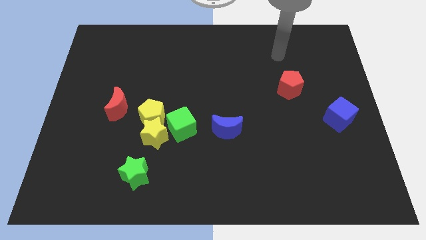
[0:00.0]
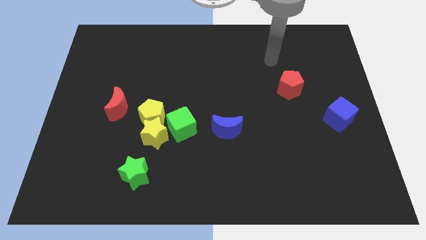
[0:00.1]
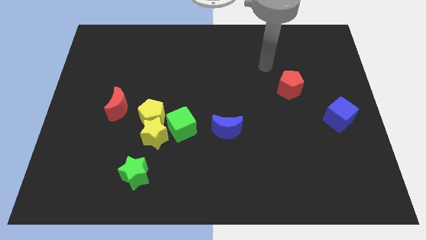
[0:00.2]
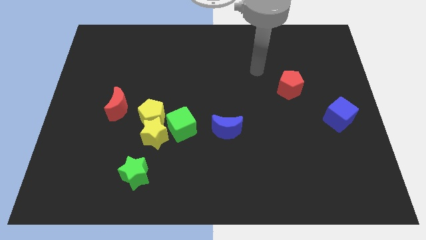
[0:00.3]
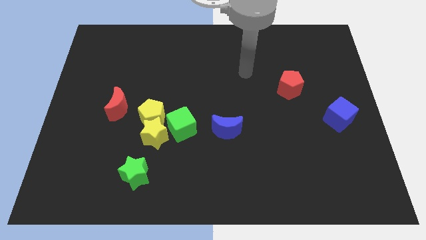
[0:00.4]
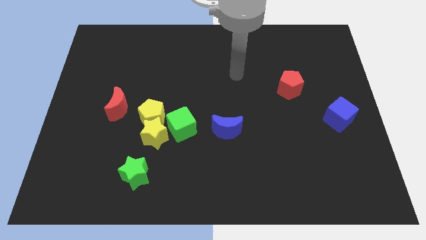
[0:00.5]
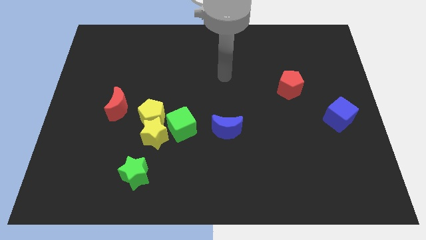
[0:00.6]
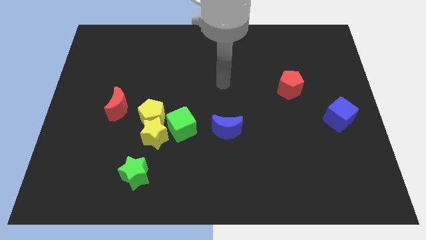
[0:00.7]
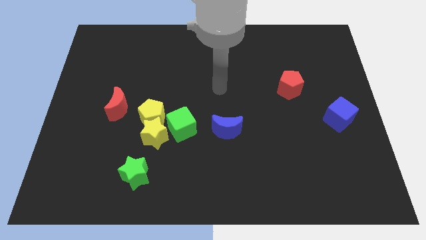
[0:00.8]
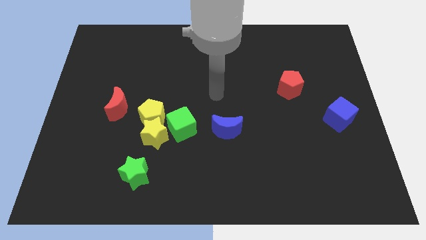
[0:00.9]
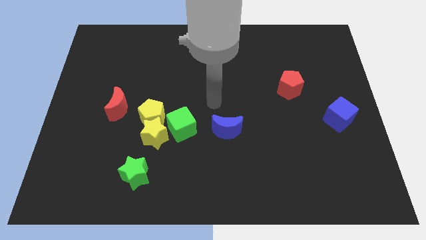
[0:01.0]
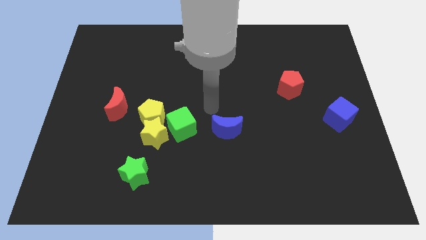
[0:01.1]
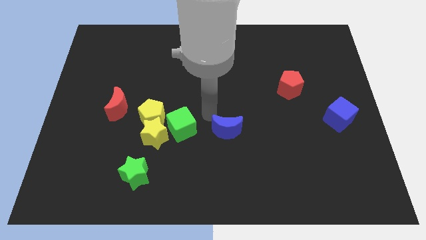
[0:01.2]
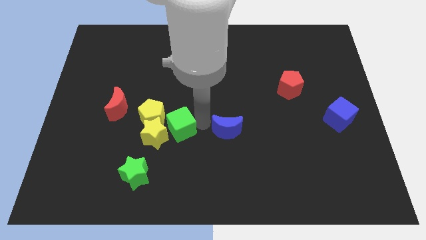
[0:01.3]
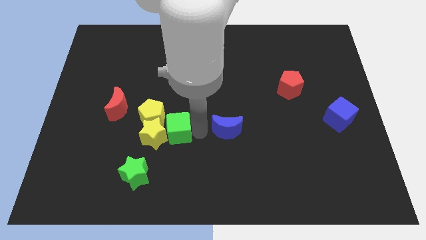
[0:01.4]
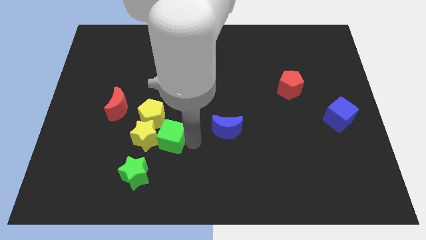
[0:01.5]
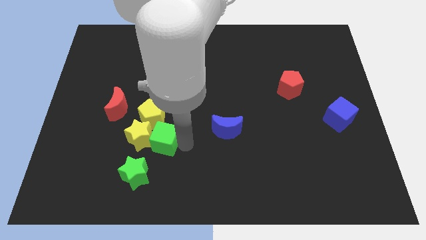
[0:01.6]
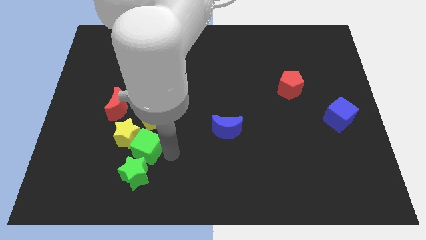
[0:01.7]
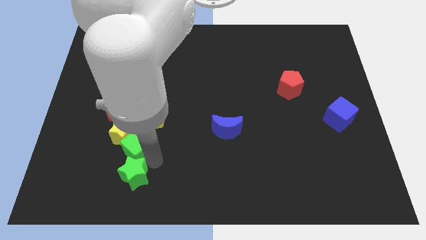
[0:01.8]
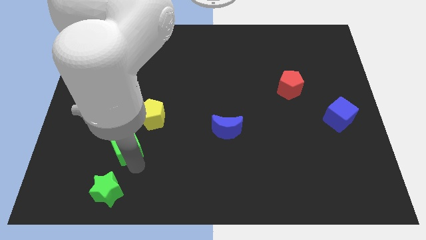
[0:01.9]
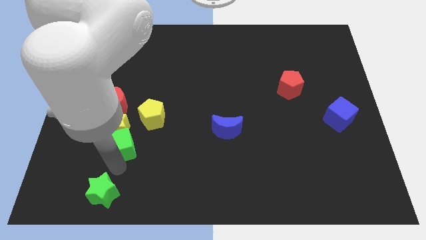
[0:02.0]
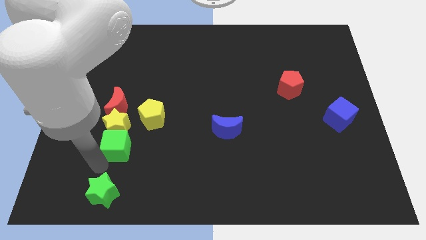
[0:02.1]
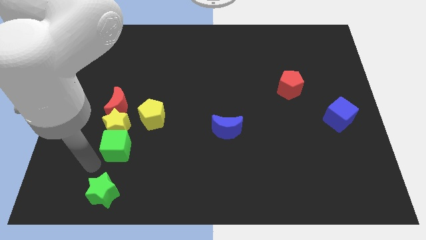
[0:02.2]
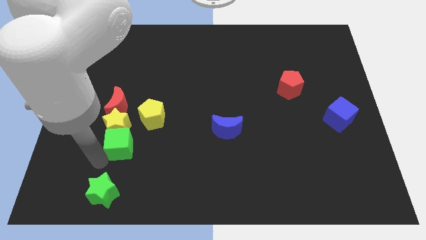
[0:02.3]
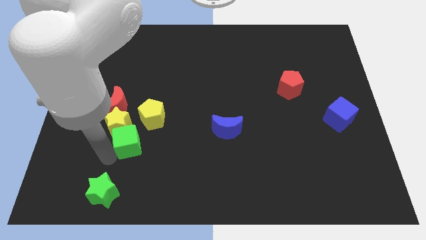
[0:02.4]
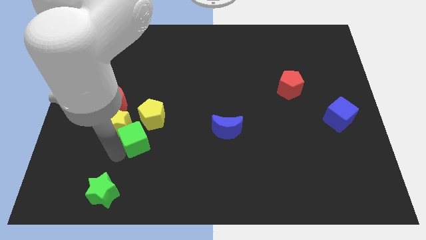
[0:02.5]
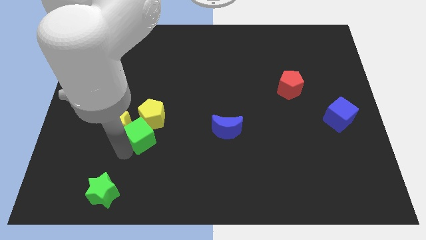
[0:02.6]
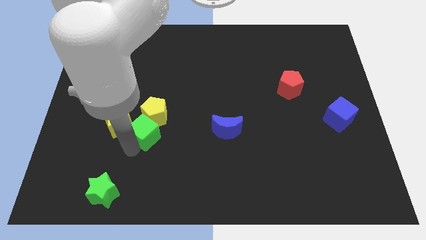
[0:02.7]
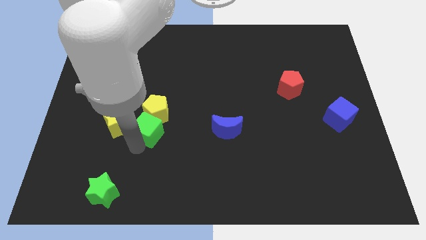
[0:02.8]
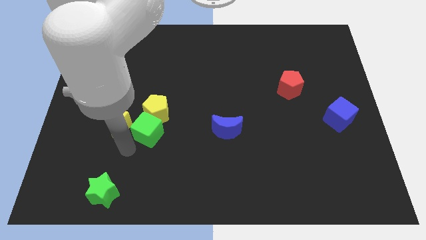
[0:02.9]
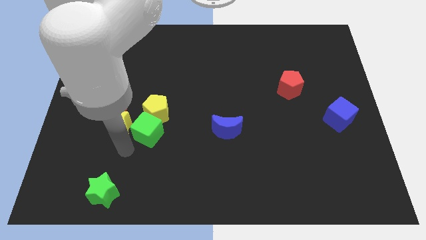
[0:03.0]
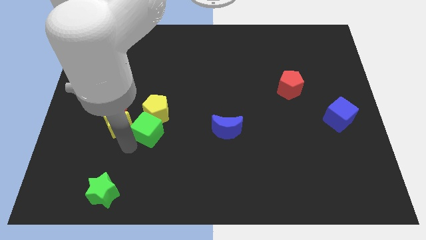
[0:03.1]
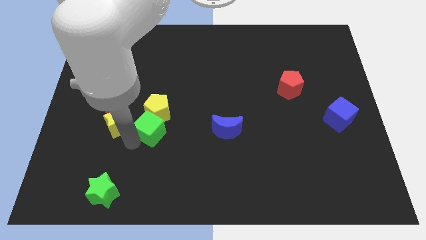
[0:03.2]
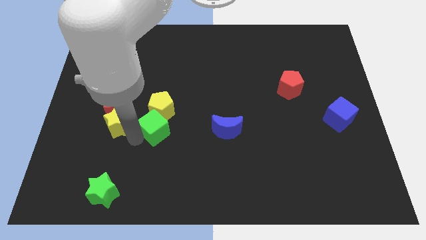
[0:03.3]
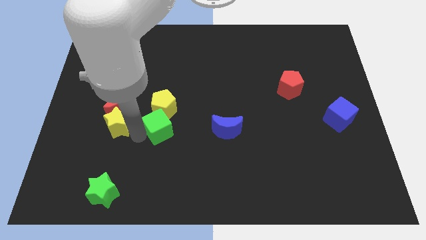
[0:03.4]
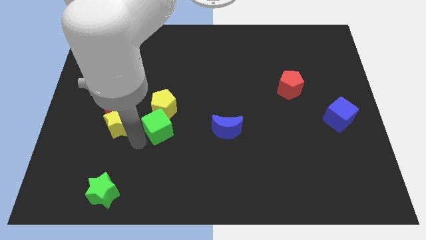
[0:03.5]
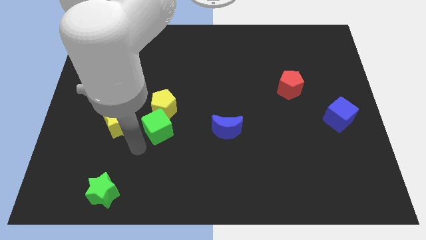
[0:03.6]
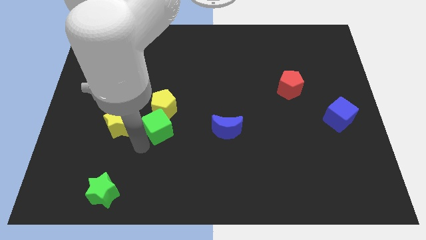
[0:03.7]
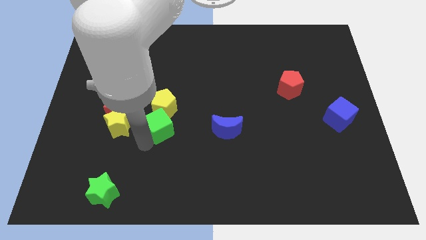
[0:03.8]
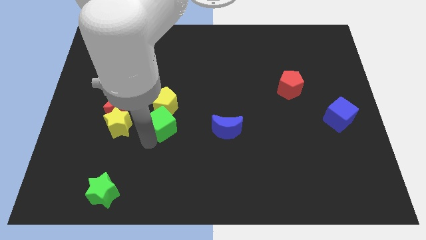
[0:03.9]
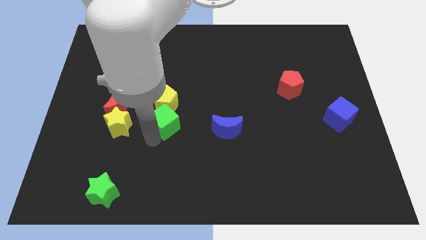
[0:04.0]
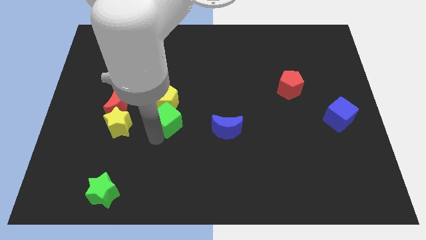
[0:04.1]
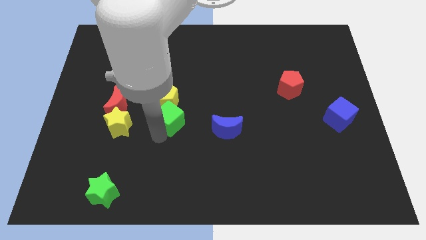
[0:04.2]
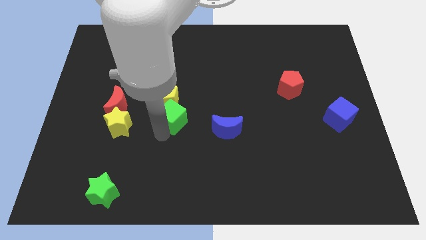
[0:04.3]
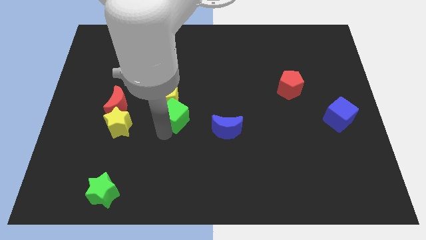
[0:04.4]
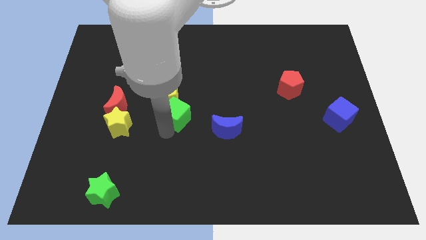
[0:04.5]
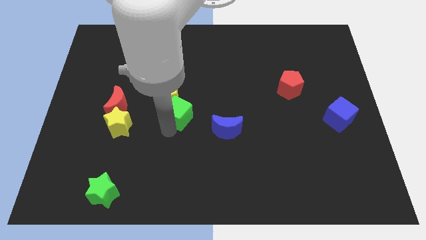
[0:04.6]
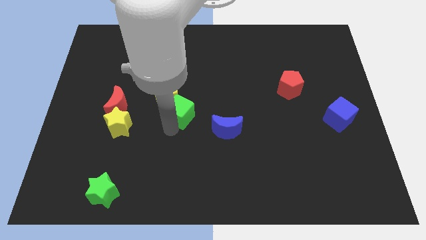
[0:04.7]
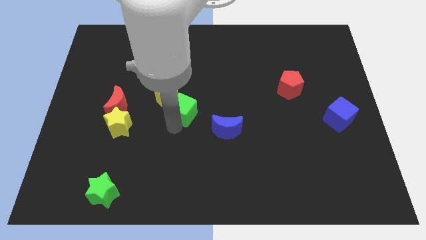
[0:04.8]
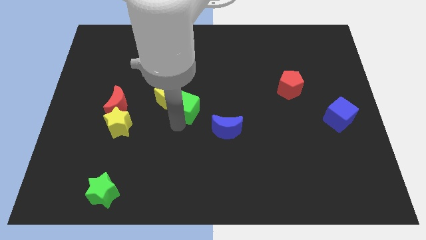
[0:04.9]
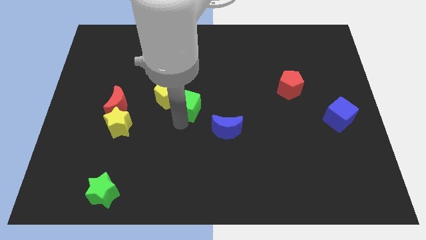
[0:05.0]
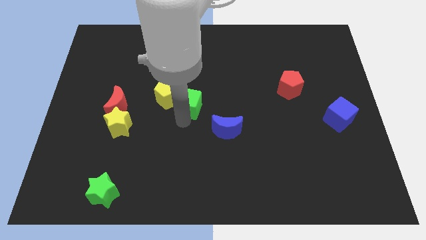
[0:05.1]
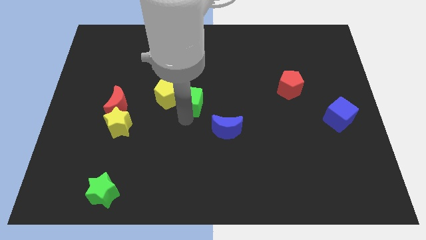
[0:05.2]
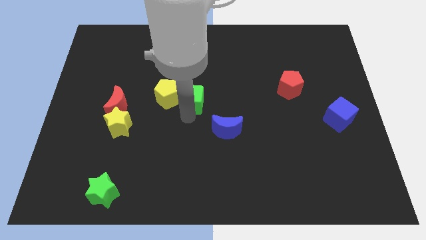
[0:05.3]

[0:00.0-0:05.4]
move the green cube upwards a little

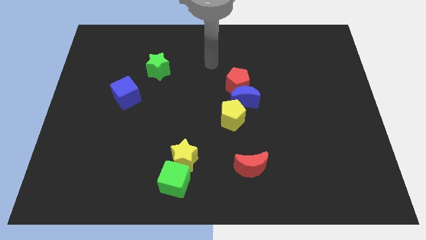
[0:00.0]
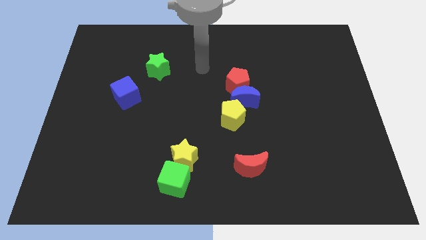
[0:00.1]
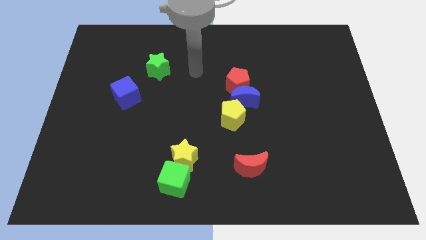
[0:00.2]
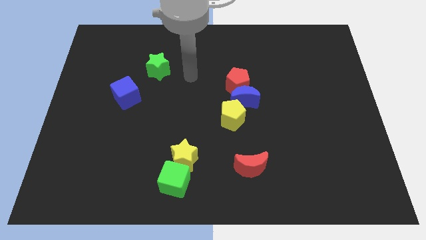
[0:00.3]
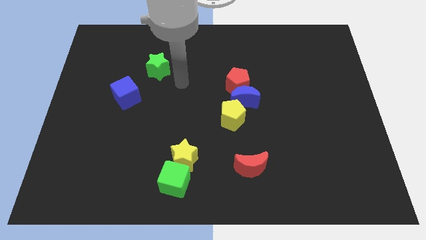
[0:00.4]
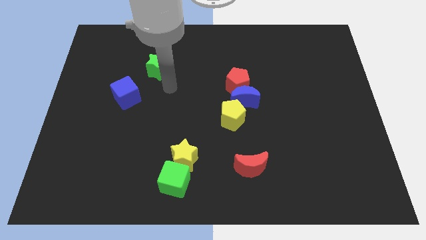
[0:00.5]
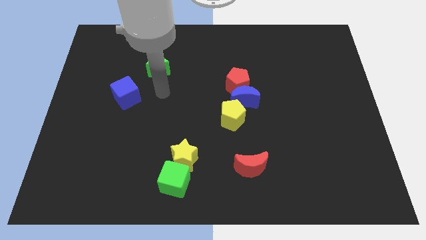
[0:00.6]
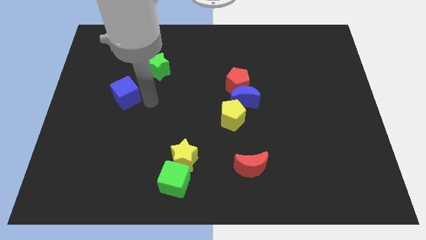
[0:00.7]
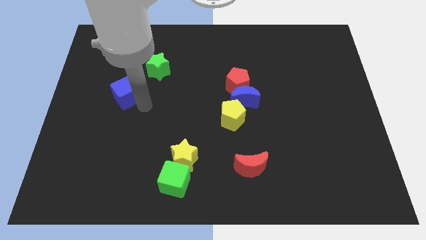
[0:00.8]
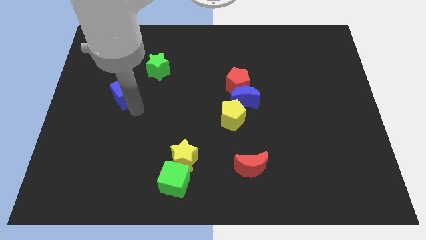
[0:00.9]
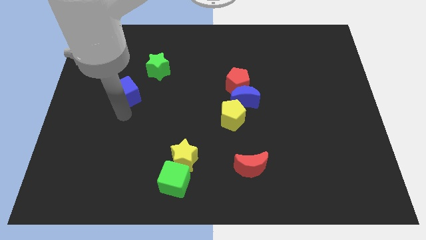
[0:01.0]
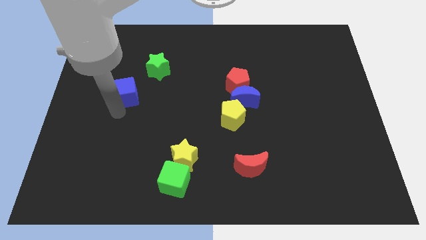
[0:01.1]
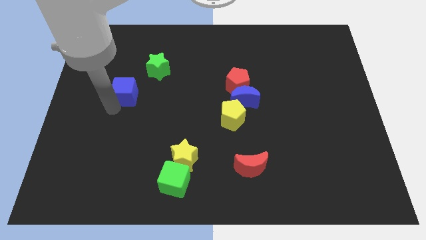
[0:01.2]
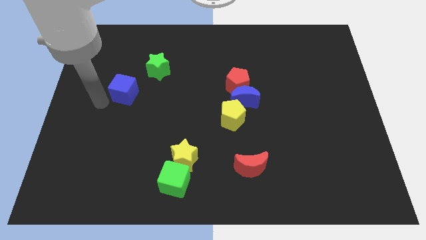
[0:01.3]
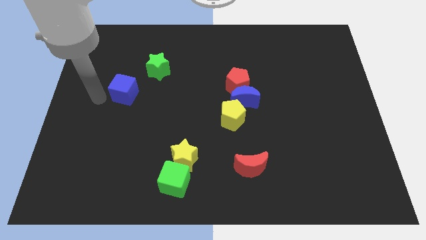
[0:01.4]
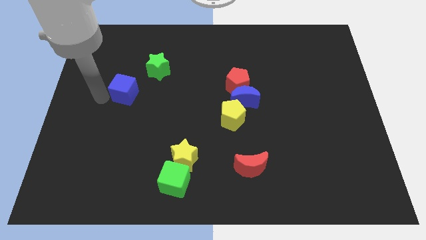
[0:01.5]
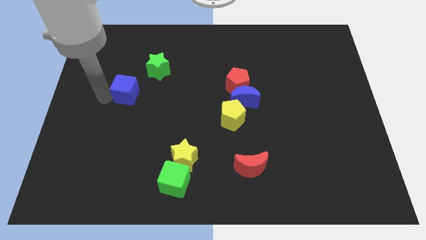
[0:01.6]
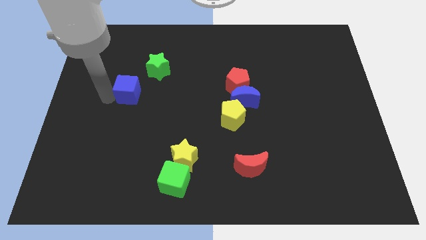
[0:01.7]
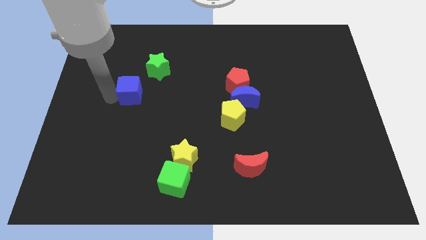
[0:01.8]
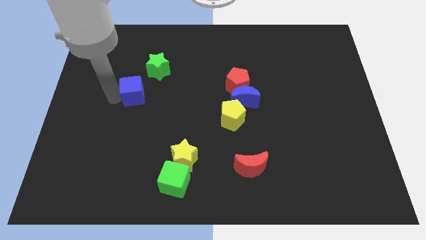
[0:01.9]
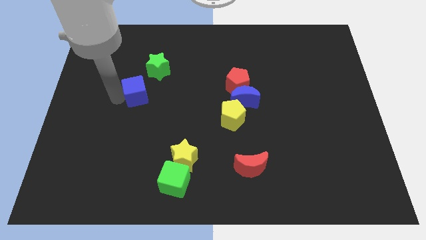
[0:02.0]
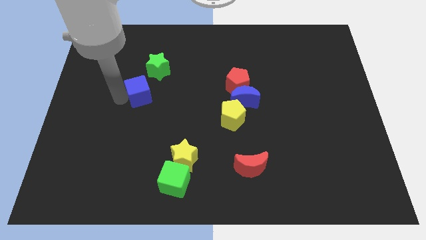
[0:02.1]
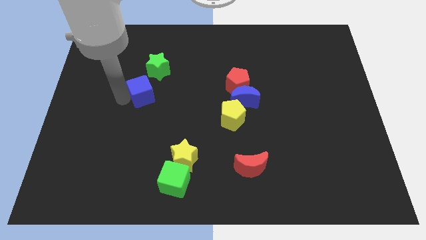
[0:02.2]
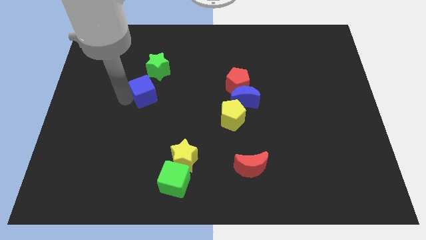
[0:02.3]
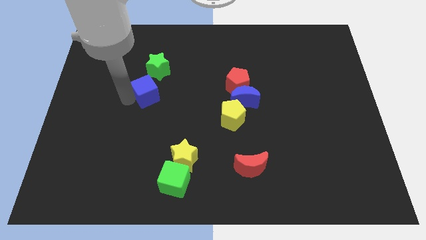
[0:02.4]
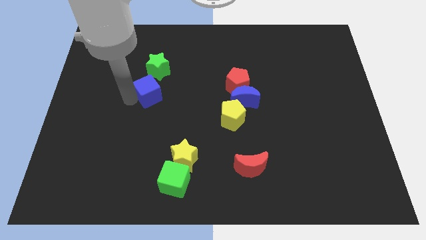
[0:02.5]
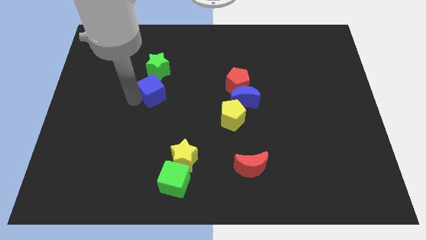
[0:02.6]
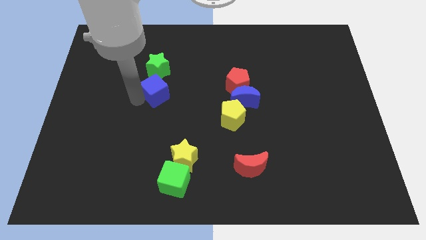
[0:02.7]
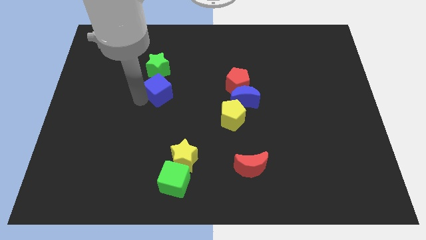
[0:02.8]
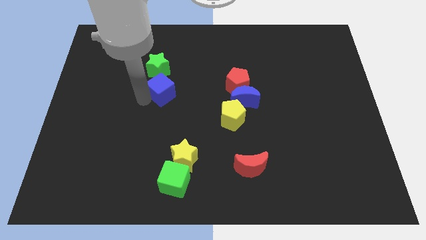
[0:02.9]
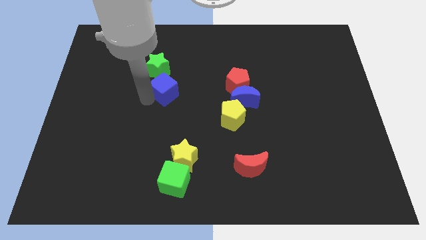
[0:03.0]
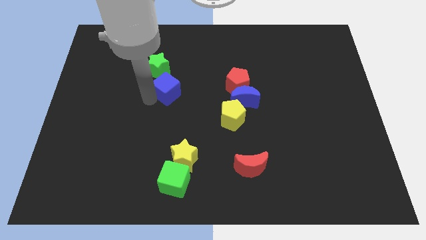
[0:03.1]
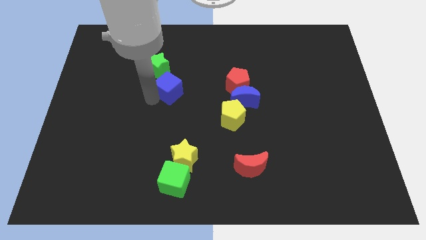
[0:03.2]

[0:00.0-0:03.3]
slide the blue cube slightly upwards and then right
